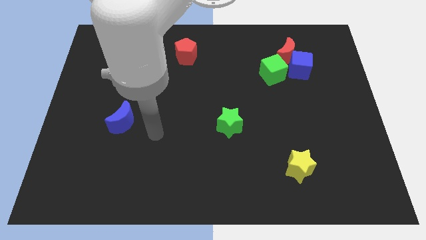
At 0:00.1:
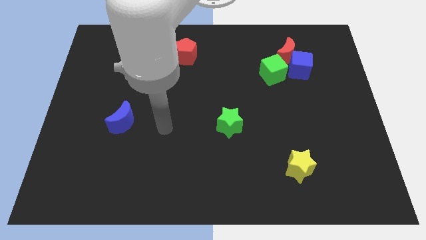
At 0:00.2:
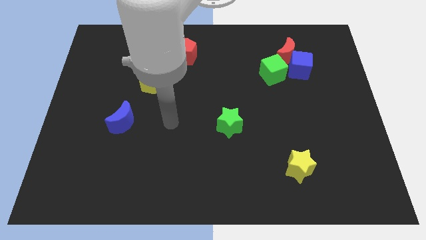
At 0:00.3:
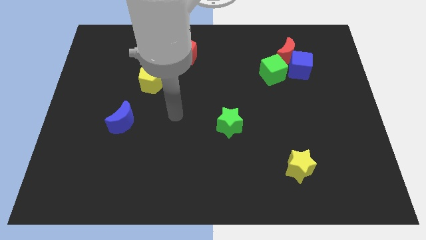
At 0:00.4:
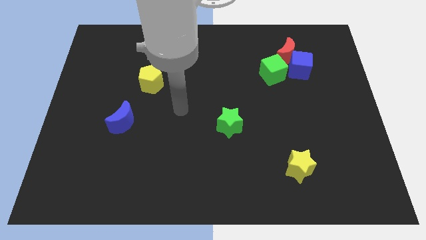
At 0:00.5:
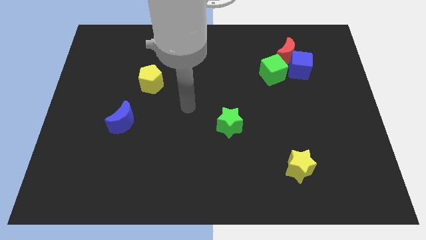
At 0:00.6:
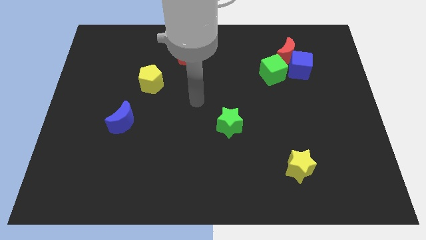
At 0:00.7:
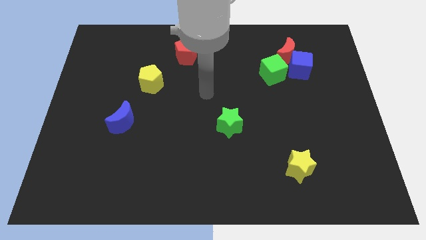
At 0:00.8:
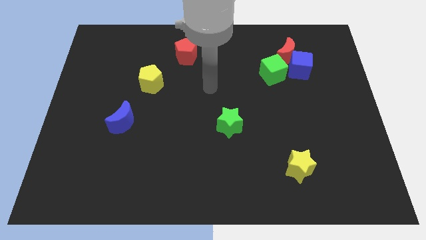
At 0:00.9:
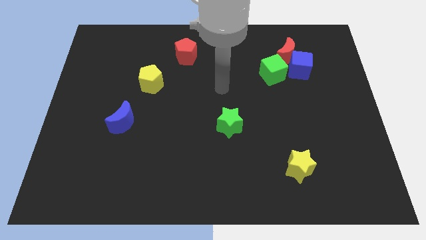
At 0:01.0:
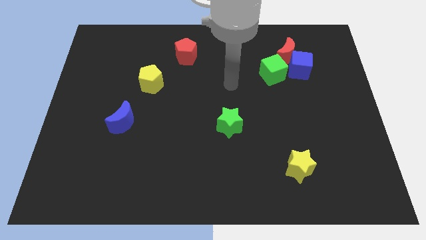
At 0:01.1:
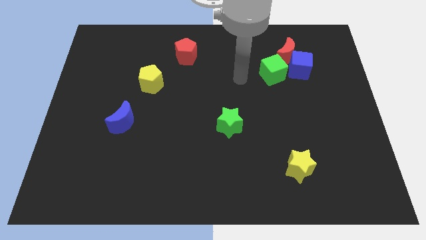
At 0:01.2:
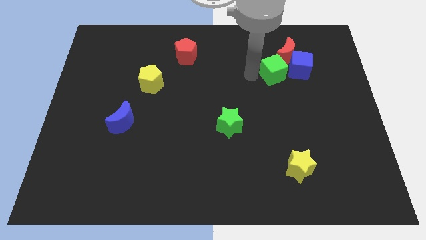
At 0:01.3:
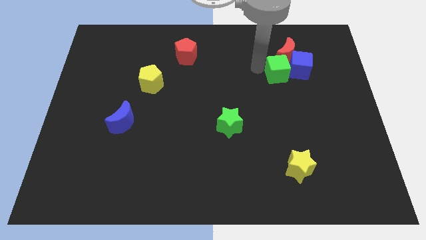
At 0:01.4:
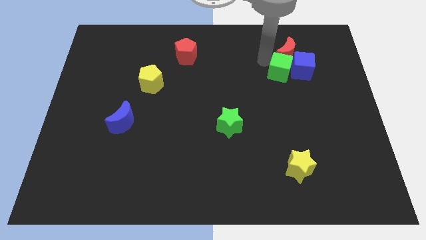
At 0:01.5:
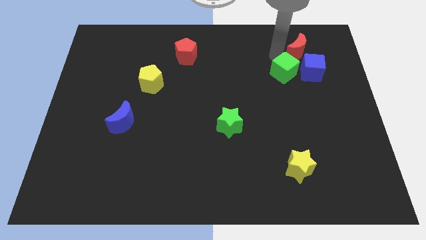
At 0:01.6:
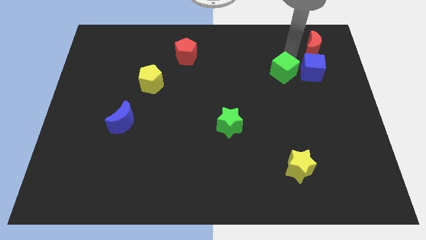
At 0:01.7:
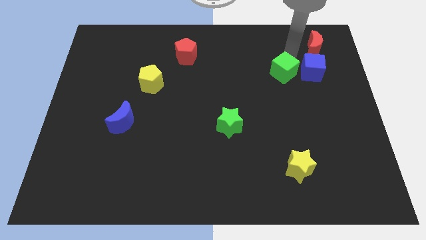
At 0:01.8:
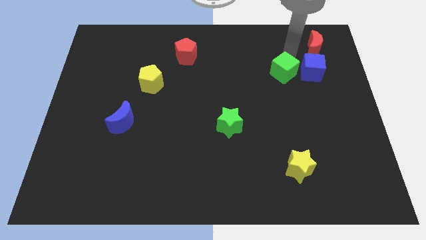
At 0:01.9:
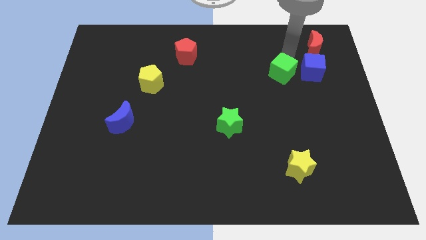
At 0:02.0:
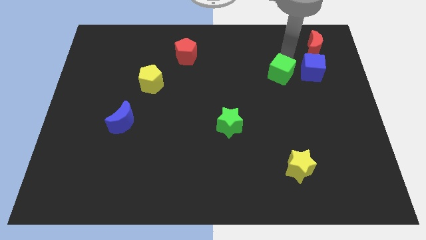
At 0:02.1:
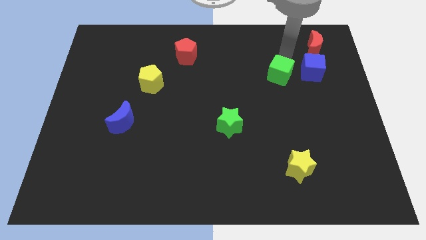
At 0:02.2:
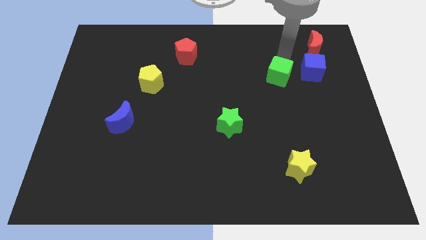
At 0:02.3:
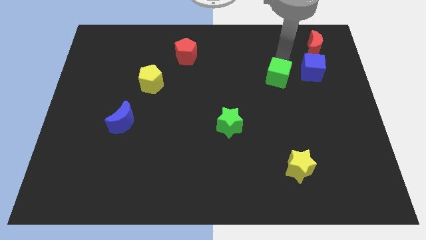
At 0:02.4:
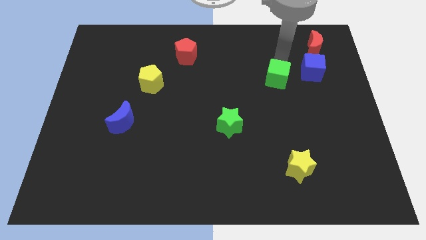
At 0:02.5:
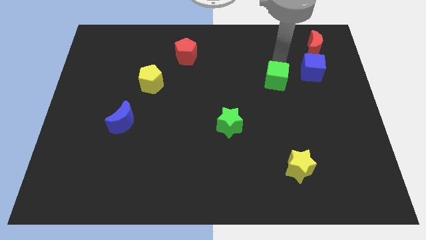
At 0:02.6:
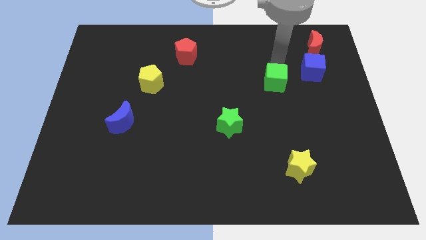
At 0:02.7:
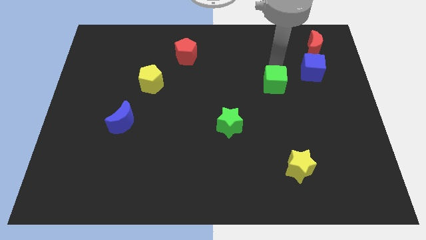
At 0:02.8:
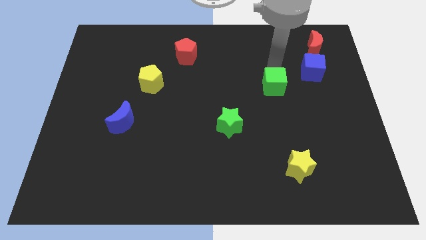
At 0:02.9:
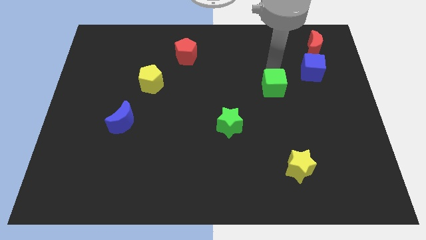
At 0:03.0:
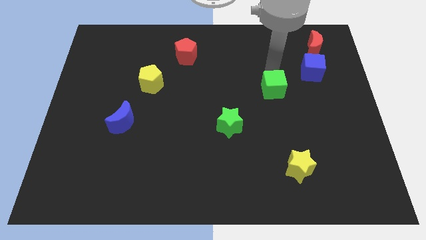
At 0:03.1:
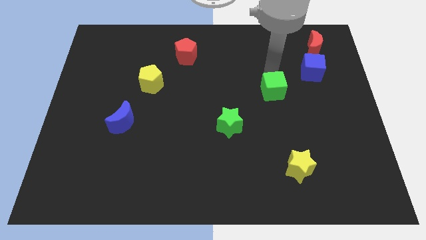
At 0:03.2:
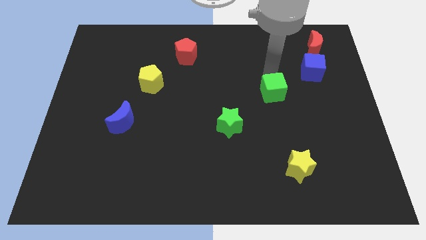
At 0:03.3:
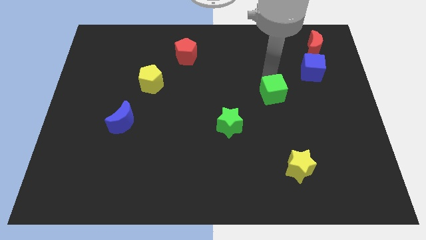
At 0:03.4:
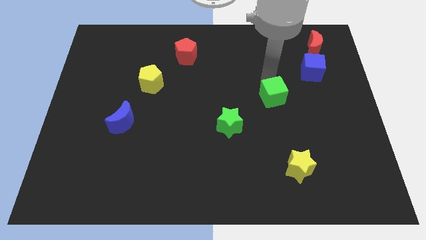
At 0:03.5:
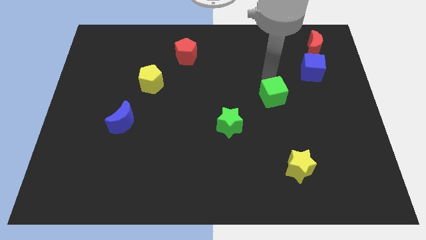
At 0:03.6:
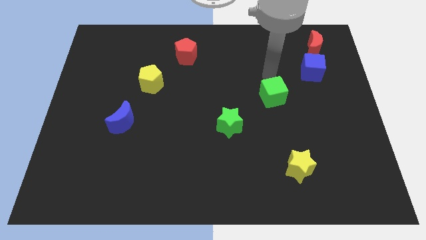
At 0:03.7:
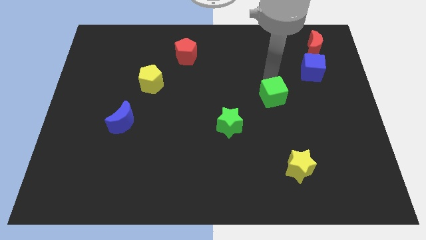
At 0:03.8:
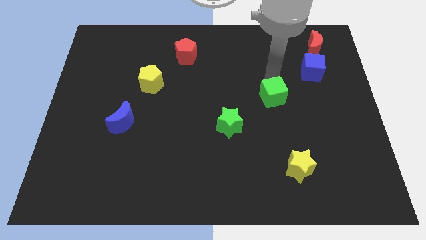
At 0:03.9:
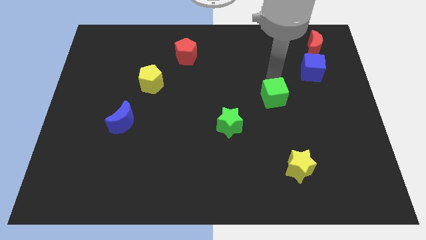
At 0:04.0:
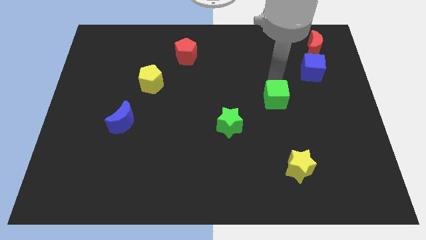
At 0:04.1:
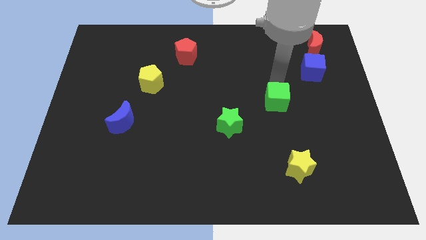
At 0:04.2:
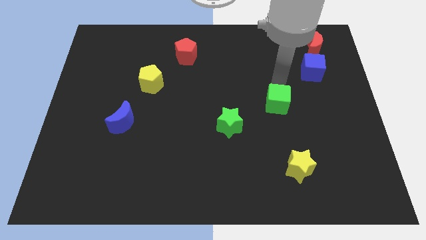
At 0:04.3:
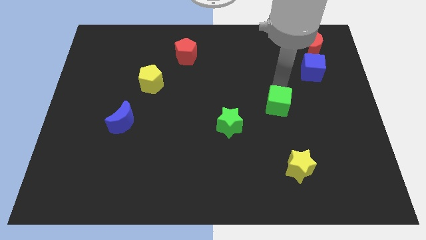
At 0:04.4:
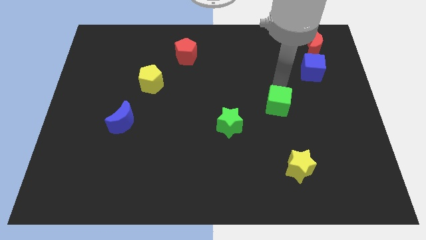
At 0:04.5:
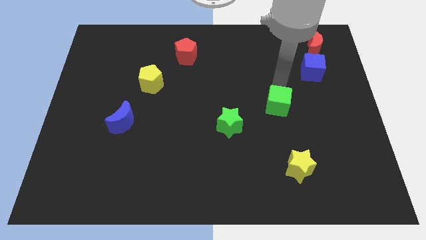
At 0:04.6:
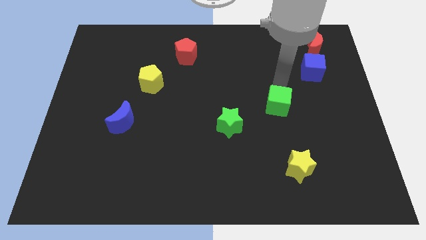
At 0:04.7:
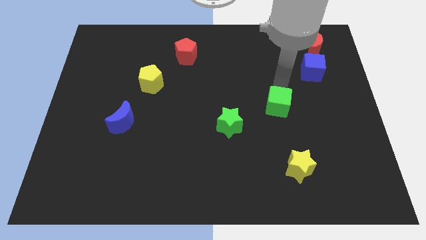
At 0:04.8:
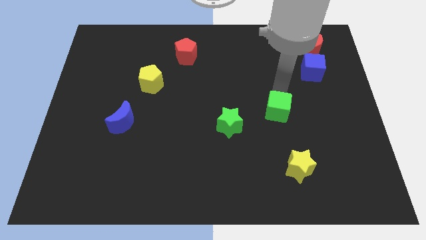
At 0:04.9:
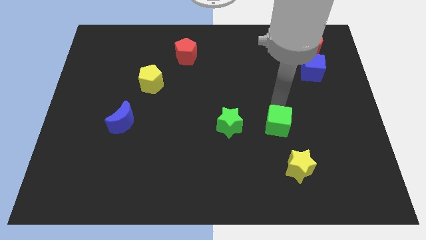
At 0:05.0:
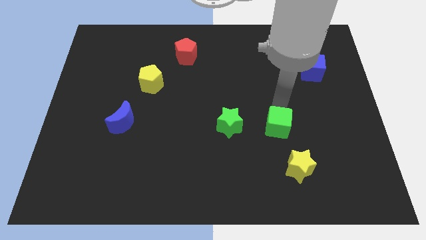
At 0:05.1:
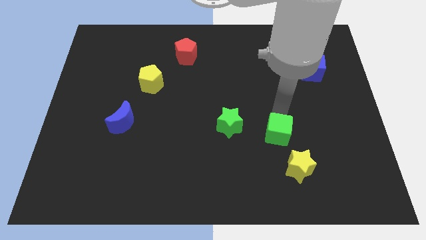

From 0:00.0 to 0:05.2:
push the green cube diagonally up and to the left of the yellow star

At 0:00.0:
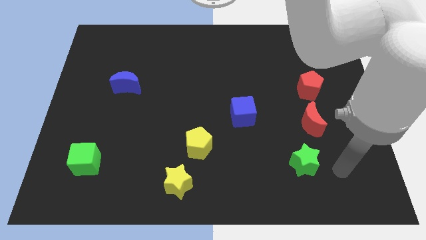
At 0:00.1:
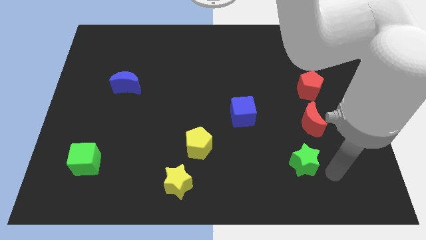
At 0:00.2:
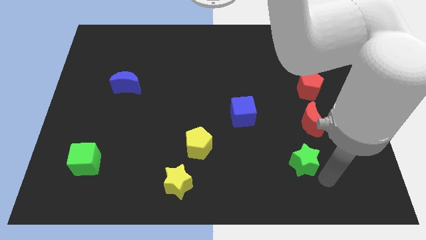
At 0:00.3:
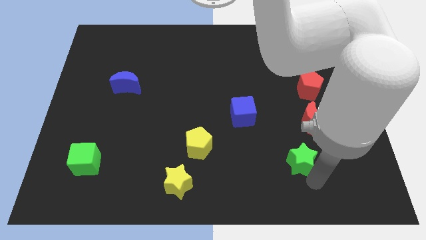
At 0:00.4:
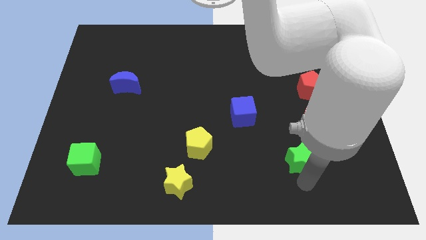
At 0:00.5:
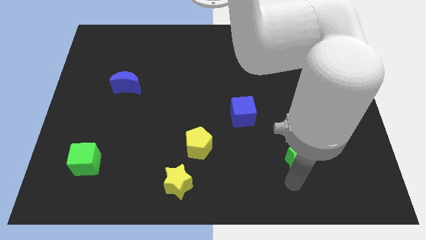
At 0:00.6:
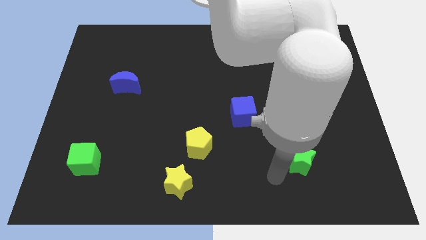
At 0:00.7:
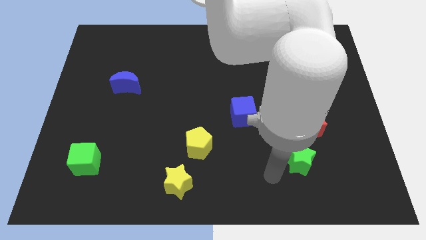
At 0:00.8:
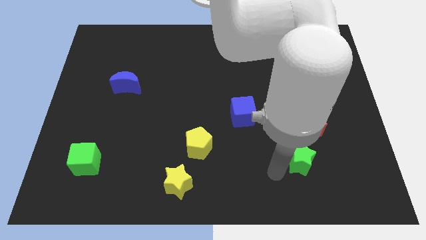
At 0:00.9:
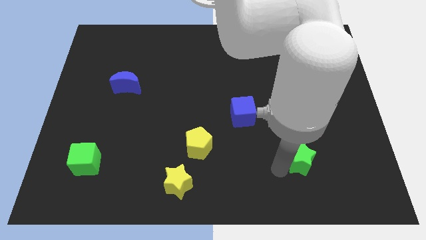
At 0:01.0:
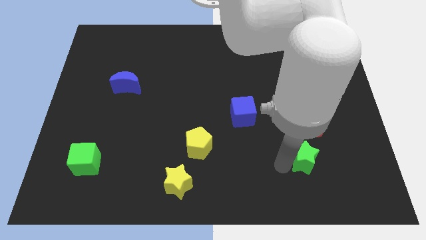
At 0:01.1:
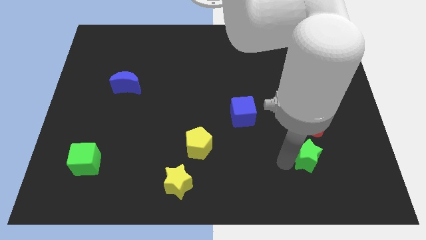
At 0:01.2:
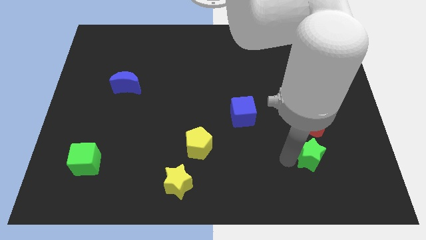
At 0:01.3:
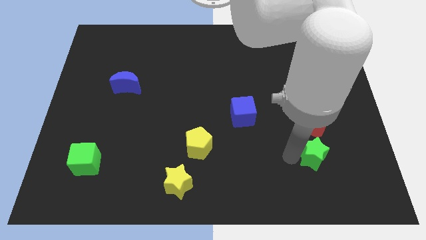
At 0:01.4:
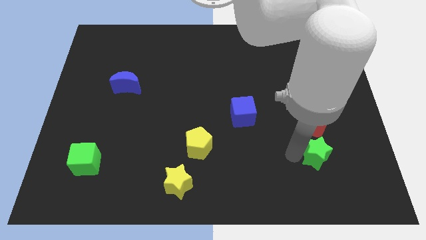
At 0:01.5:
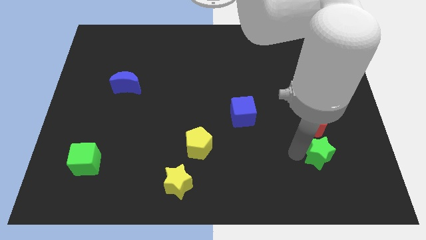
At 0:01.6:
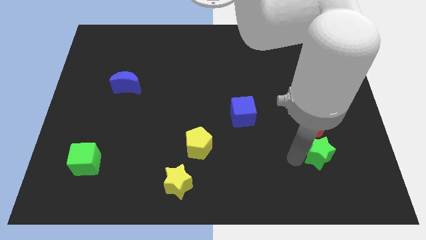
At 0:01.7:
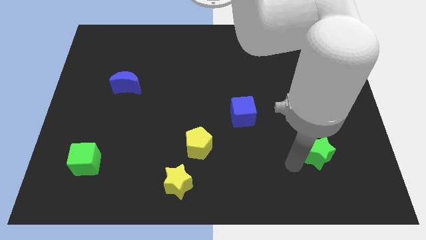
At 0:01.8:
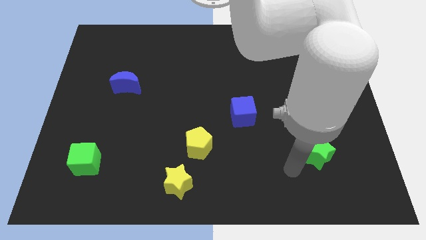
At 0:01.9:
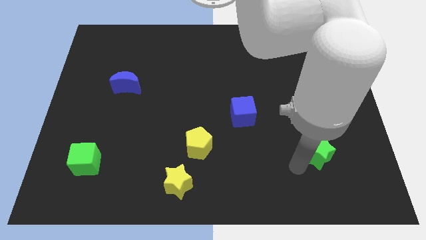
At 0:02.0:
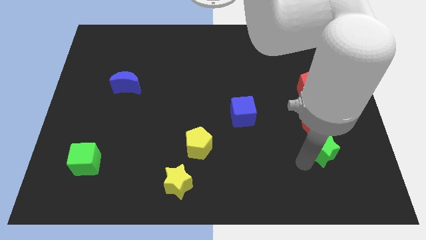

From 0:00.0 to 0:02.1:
put the green star to the bottom right of the red moon
